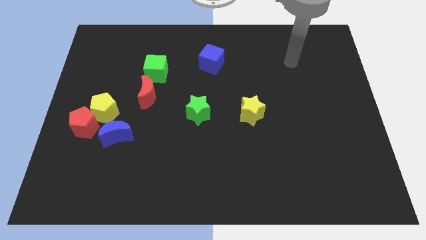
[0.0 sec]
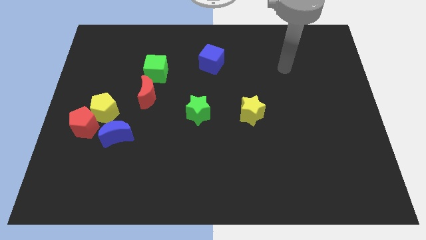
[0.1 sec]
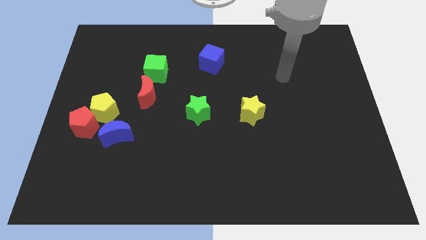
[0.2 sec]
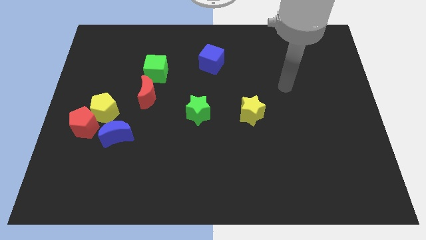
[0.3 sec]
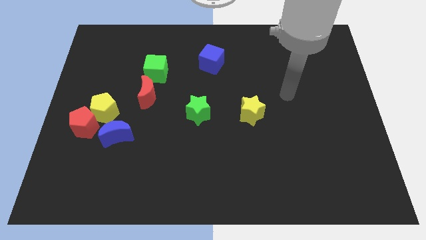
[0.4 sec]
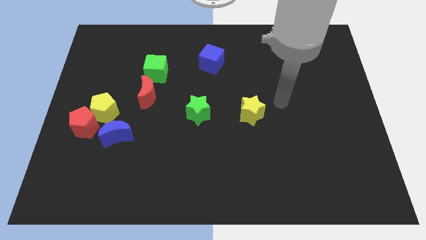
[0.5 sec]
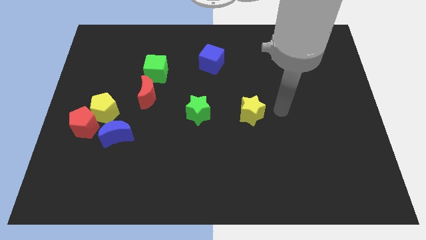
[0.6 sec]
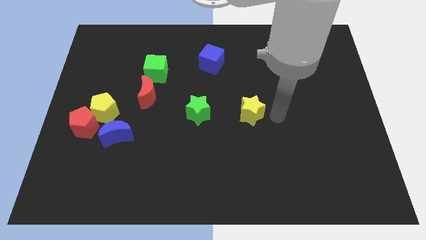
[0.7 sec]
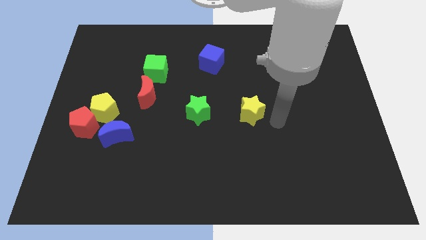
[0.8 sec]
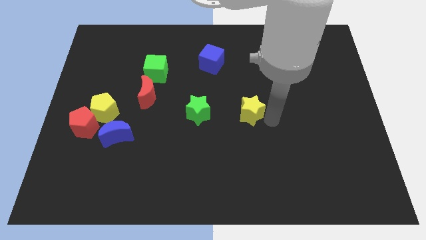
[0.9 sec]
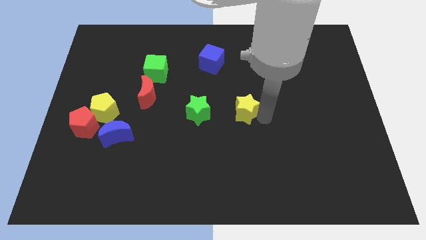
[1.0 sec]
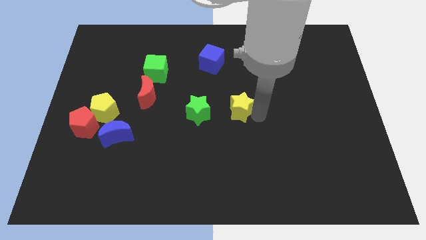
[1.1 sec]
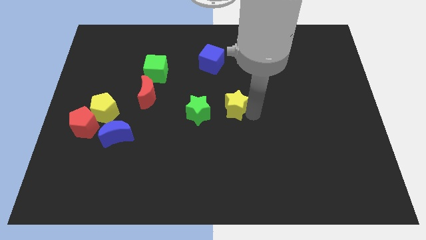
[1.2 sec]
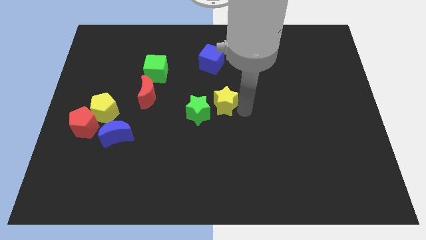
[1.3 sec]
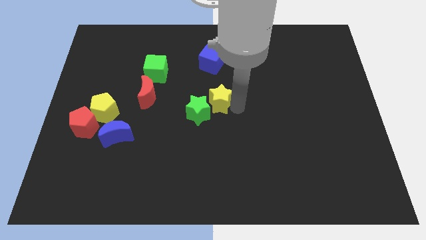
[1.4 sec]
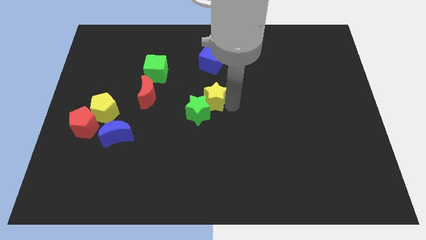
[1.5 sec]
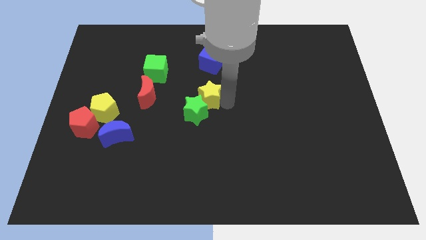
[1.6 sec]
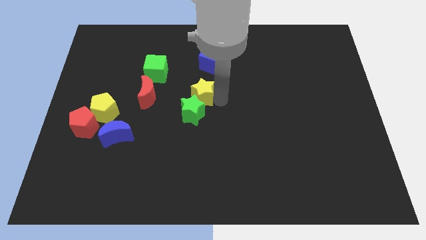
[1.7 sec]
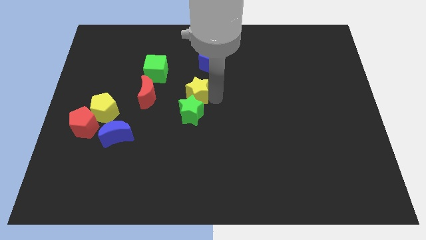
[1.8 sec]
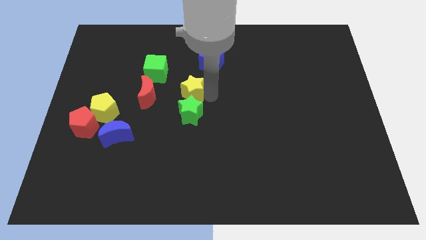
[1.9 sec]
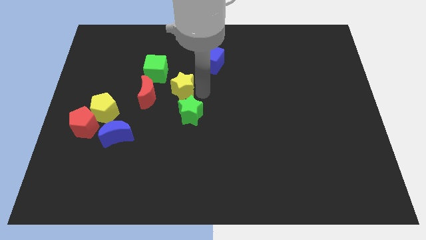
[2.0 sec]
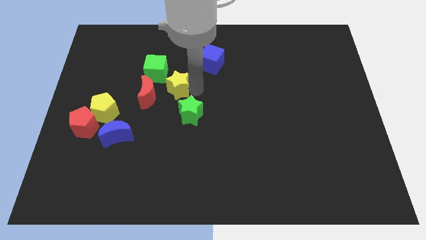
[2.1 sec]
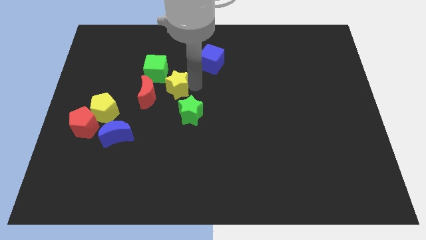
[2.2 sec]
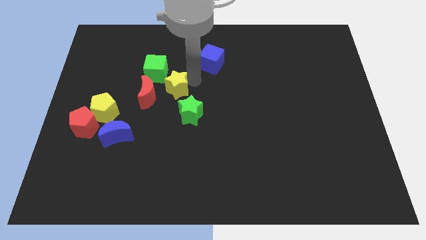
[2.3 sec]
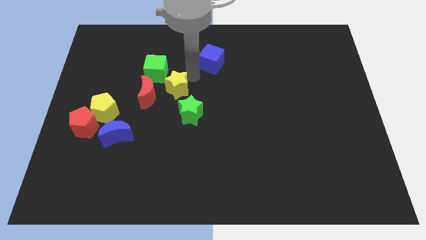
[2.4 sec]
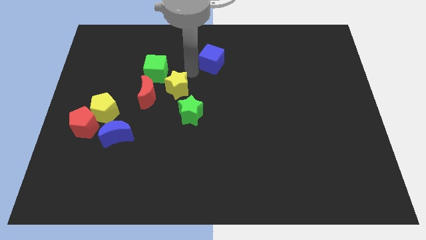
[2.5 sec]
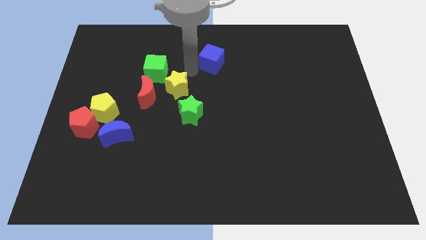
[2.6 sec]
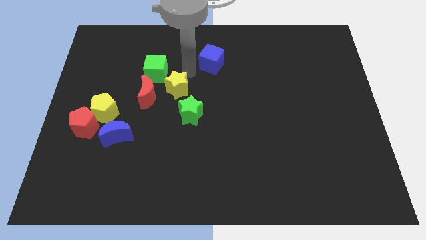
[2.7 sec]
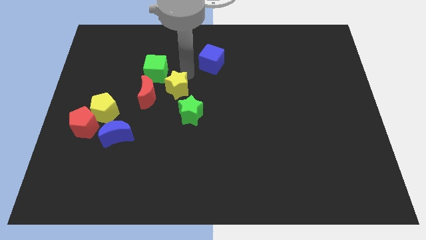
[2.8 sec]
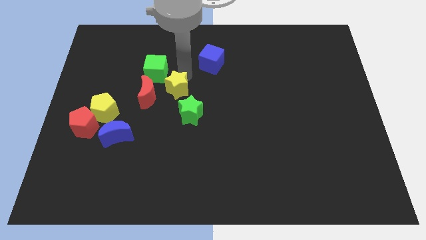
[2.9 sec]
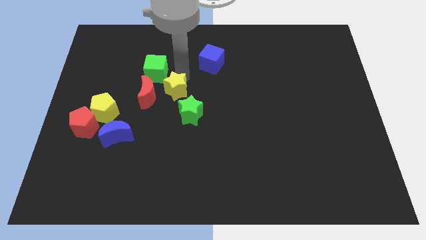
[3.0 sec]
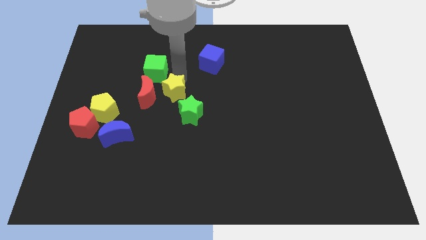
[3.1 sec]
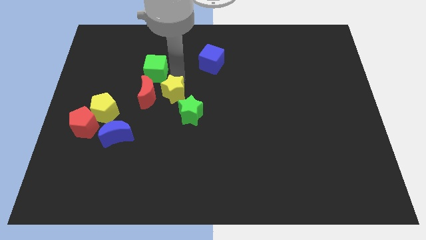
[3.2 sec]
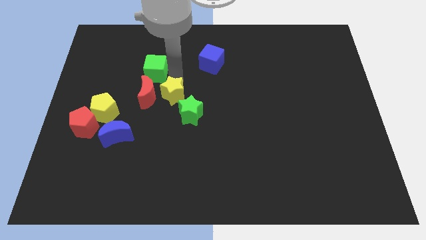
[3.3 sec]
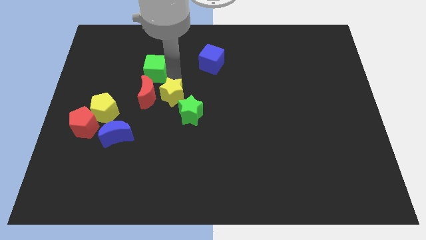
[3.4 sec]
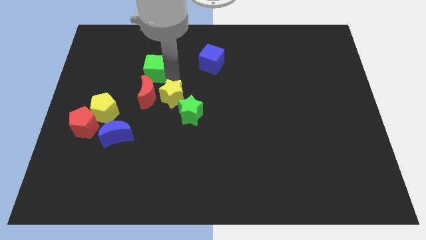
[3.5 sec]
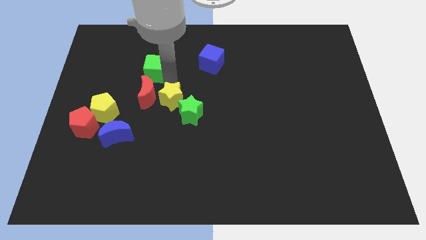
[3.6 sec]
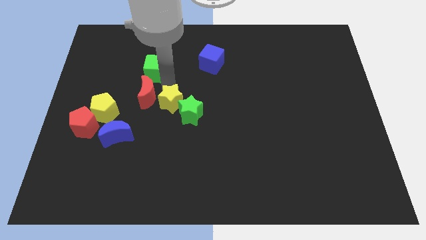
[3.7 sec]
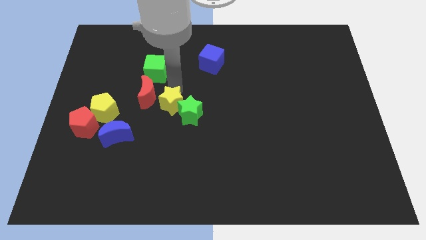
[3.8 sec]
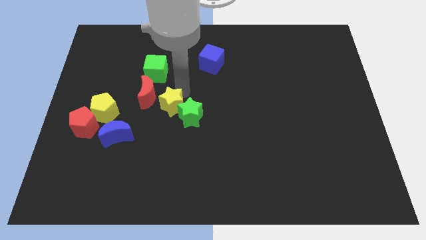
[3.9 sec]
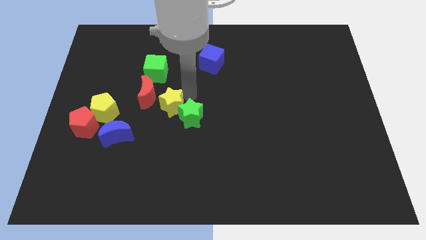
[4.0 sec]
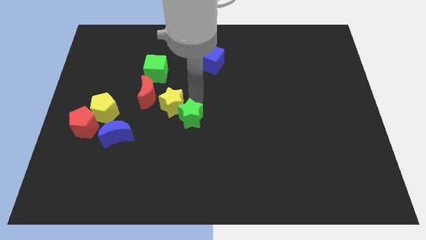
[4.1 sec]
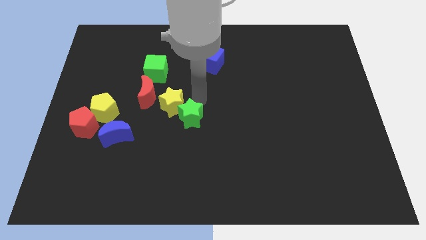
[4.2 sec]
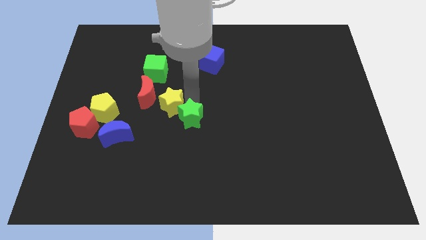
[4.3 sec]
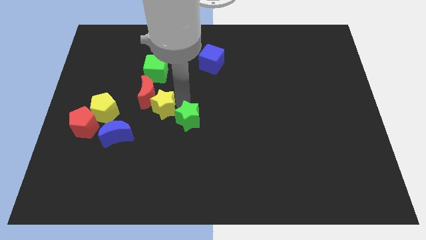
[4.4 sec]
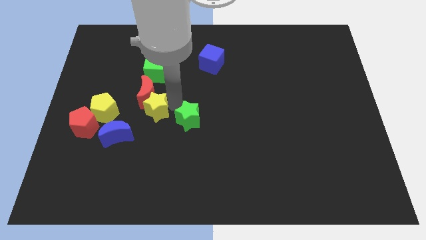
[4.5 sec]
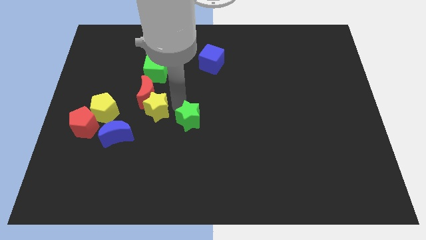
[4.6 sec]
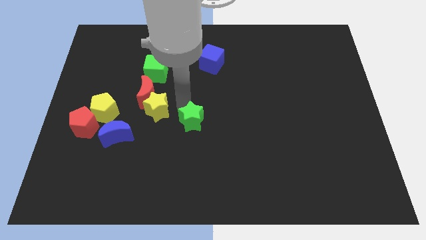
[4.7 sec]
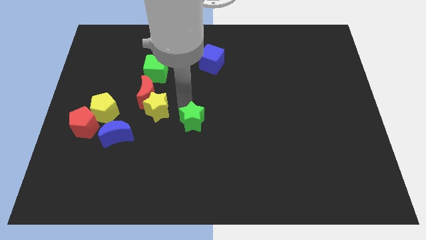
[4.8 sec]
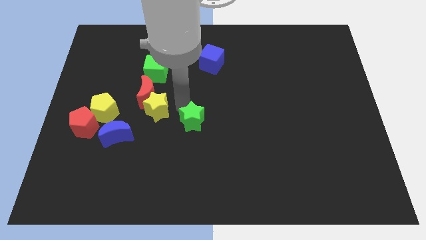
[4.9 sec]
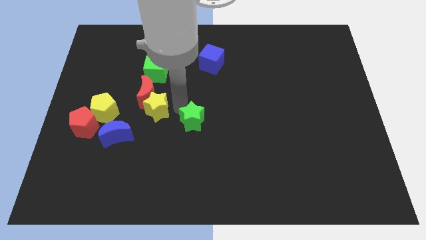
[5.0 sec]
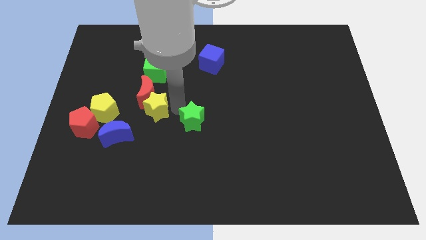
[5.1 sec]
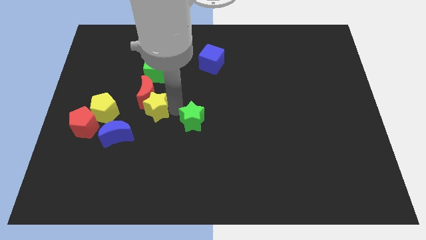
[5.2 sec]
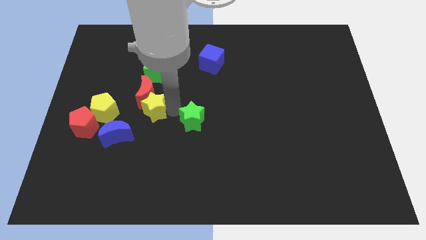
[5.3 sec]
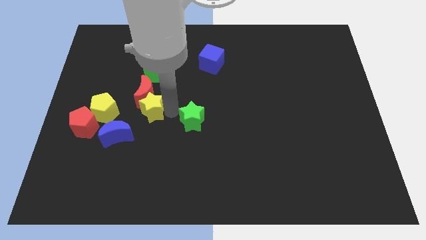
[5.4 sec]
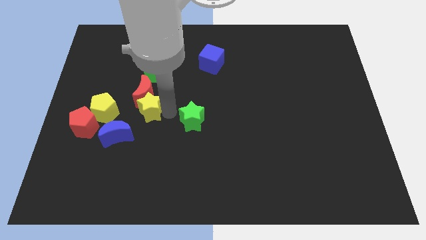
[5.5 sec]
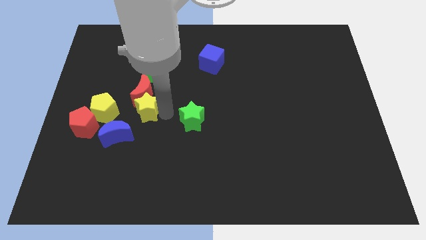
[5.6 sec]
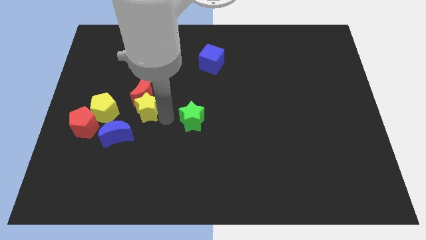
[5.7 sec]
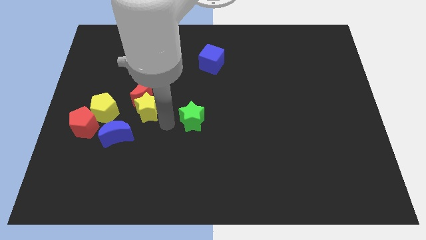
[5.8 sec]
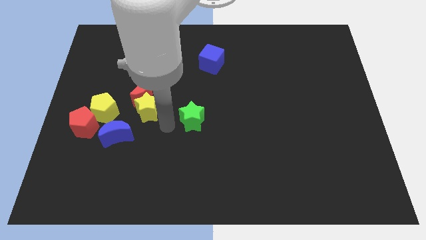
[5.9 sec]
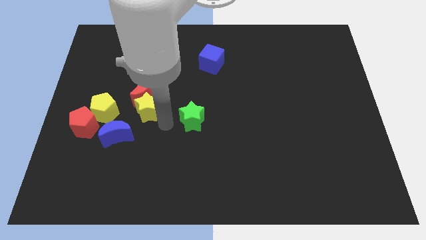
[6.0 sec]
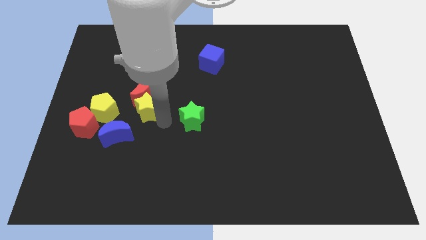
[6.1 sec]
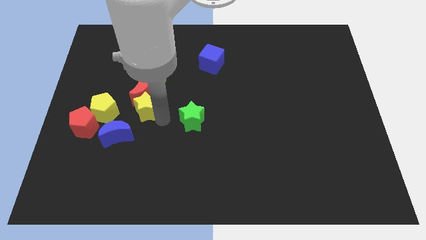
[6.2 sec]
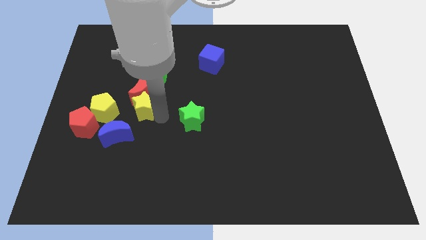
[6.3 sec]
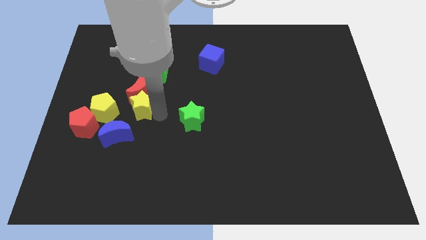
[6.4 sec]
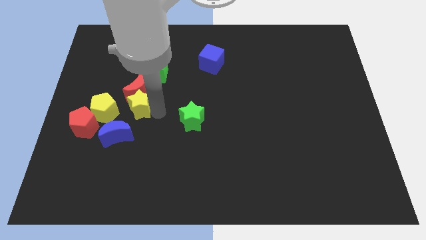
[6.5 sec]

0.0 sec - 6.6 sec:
move the yellow star diagonally up and to the right of the yellow pentagon
